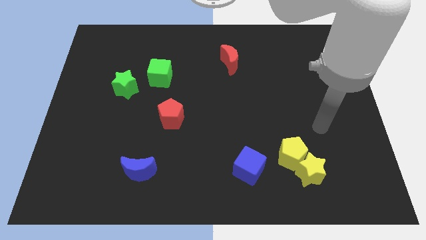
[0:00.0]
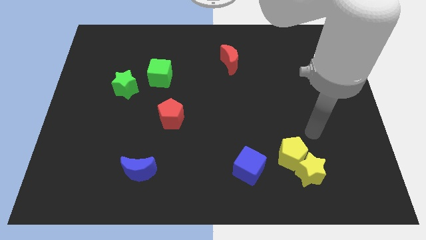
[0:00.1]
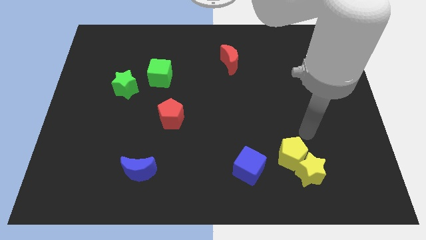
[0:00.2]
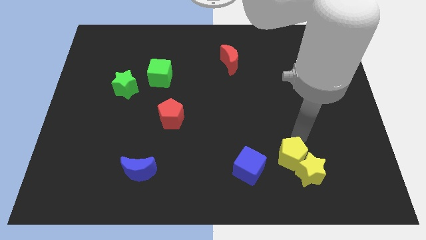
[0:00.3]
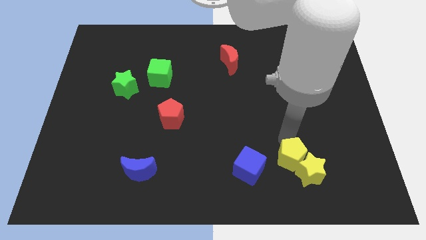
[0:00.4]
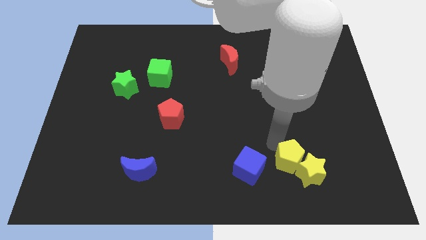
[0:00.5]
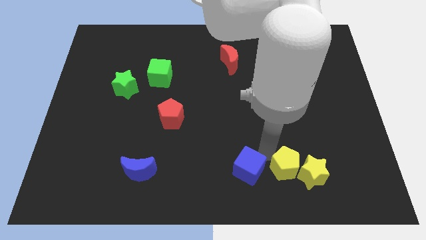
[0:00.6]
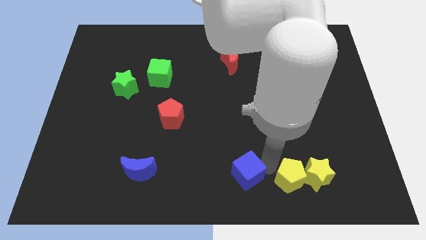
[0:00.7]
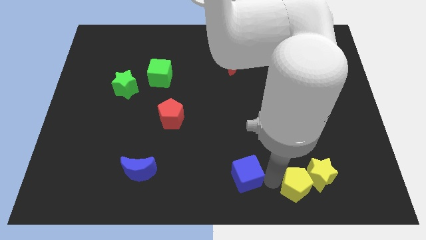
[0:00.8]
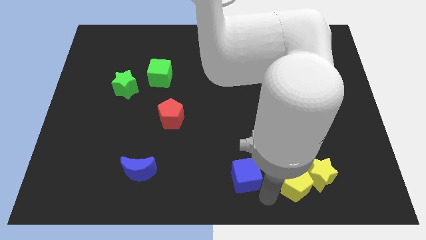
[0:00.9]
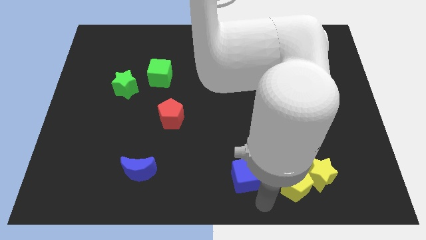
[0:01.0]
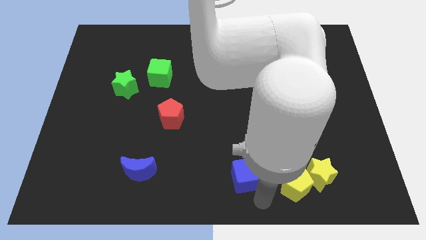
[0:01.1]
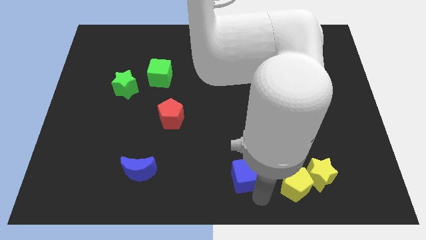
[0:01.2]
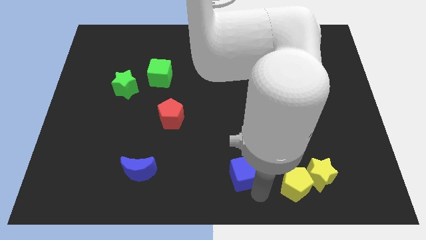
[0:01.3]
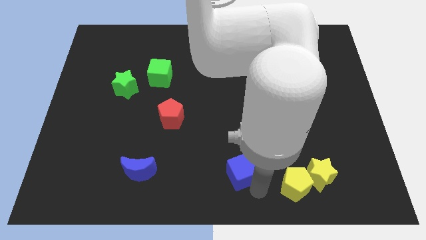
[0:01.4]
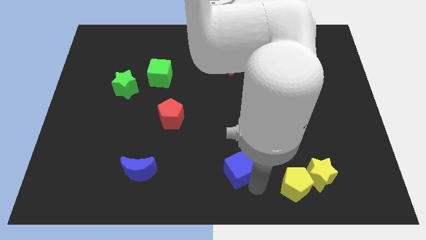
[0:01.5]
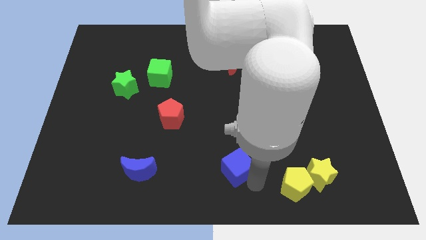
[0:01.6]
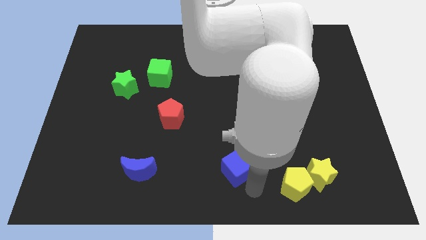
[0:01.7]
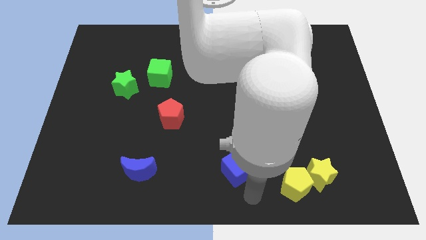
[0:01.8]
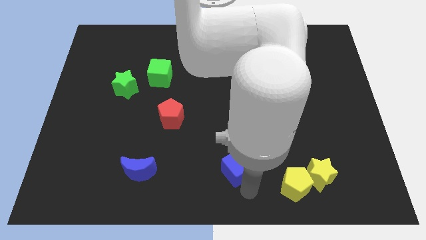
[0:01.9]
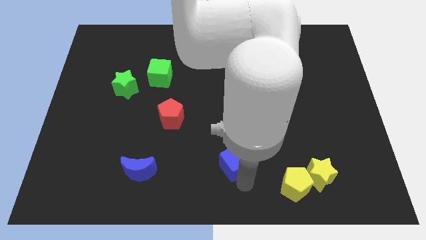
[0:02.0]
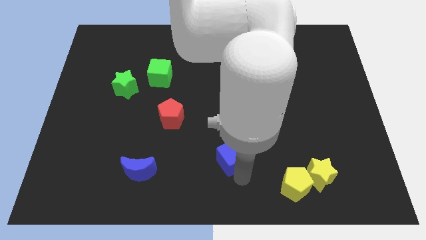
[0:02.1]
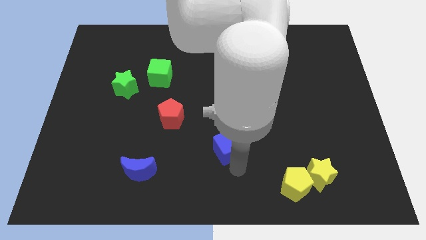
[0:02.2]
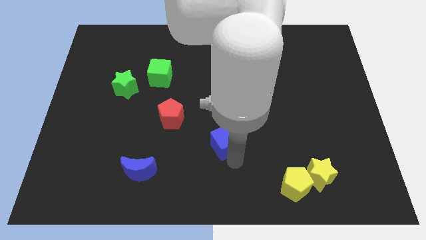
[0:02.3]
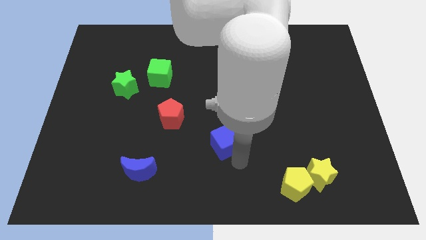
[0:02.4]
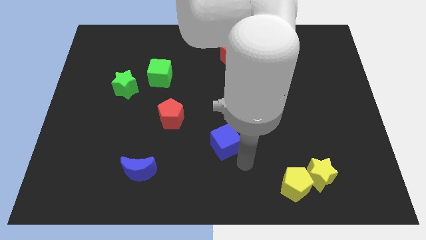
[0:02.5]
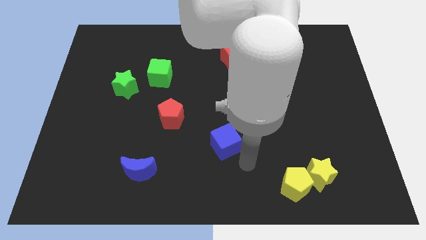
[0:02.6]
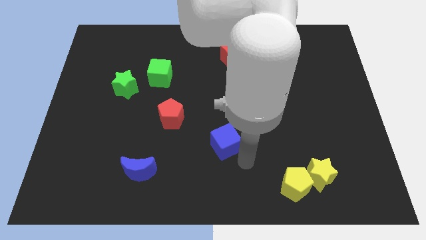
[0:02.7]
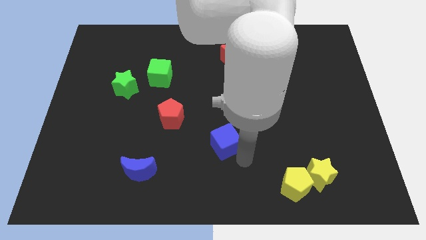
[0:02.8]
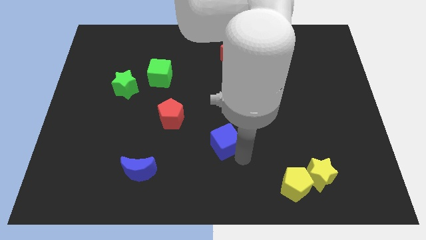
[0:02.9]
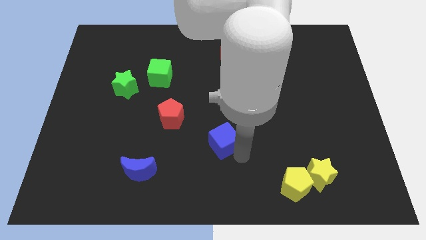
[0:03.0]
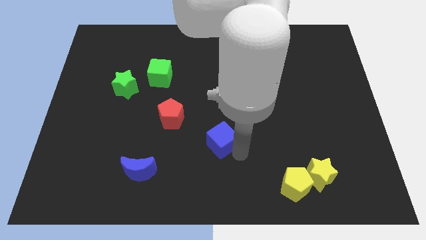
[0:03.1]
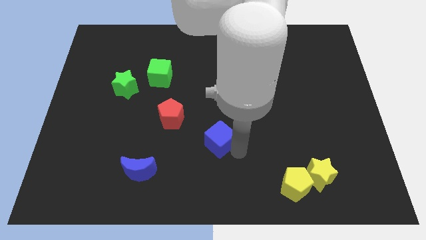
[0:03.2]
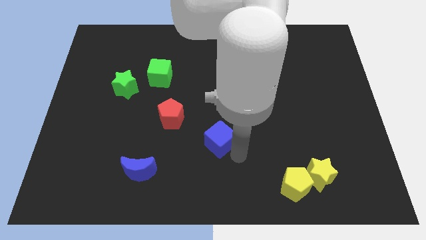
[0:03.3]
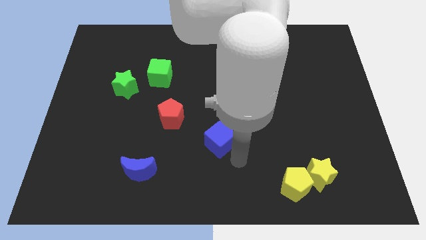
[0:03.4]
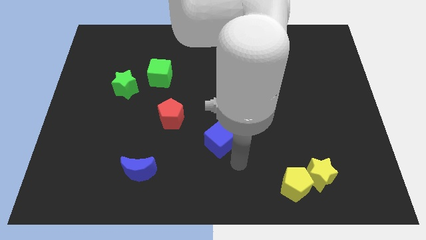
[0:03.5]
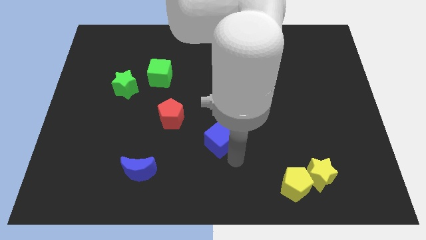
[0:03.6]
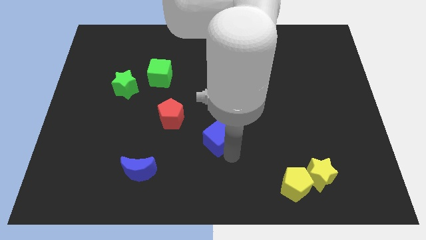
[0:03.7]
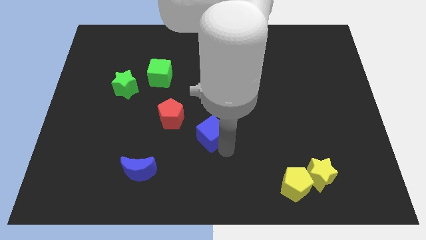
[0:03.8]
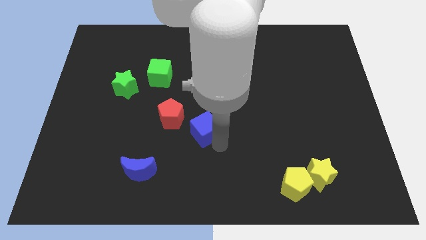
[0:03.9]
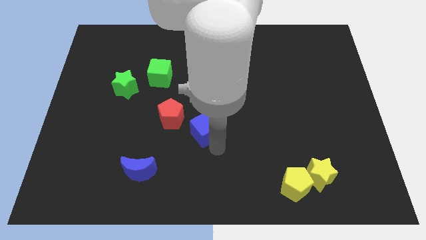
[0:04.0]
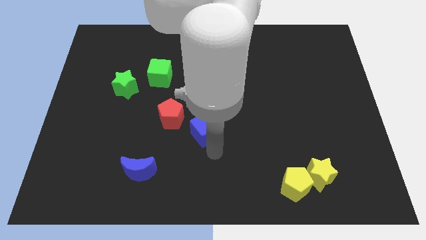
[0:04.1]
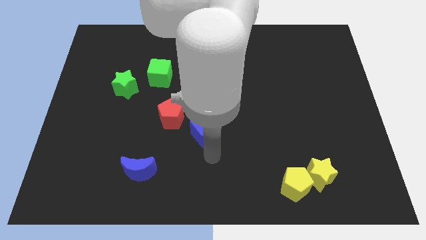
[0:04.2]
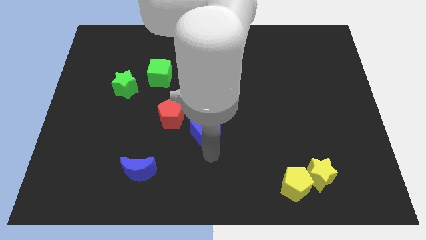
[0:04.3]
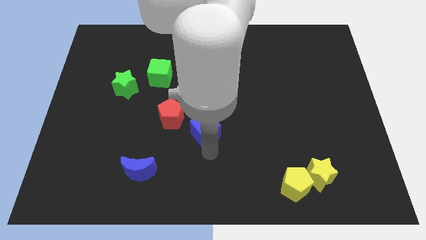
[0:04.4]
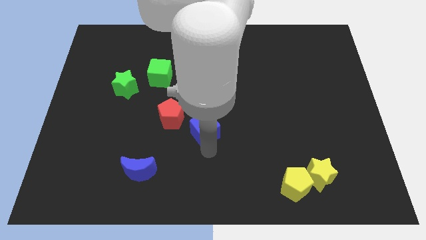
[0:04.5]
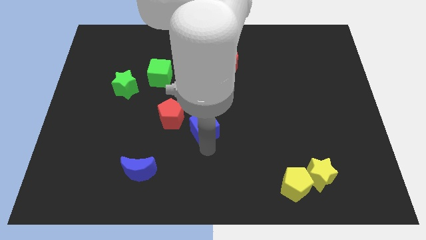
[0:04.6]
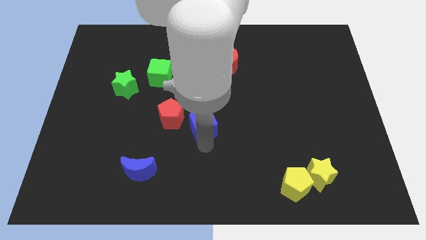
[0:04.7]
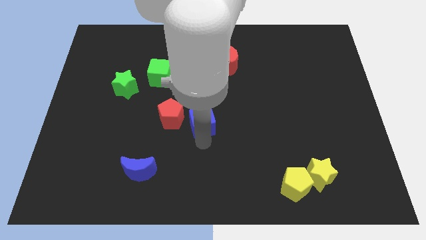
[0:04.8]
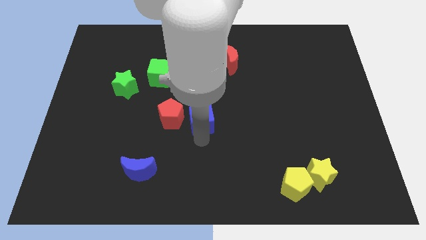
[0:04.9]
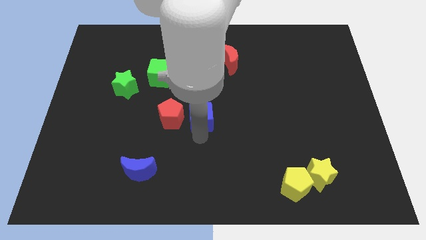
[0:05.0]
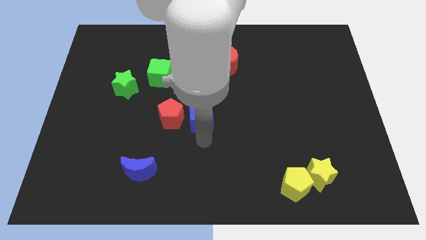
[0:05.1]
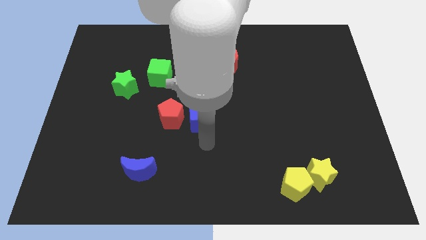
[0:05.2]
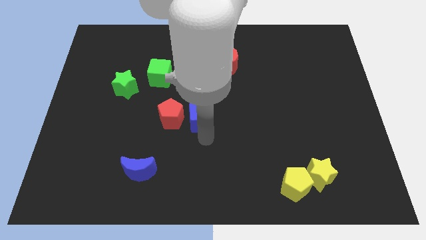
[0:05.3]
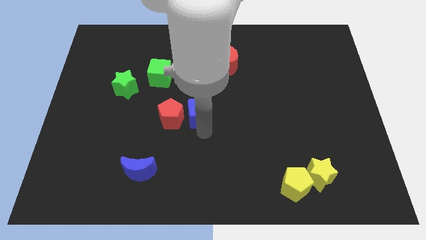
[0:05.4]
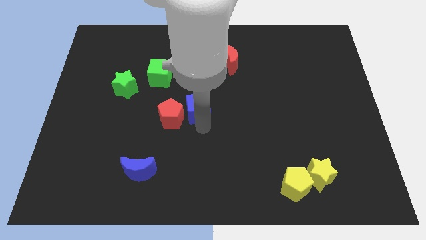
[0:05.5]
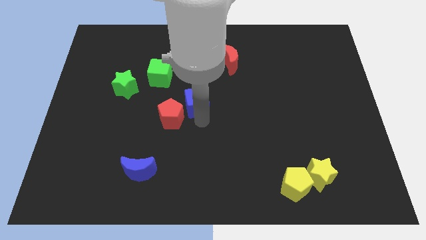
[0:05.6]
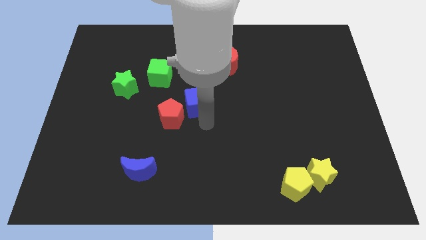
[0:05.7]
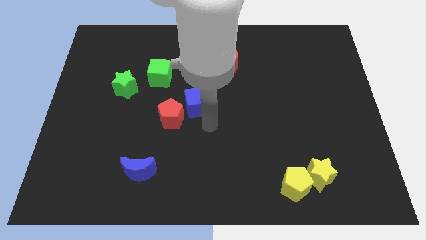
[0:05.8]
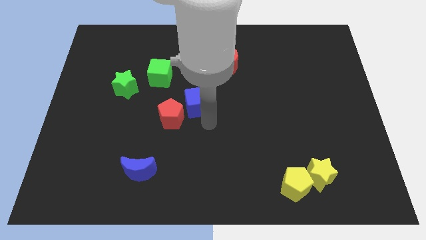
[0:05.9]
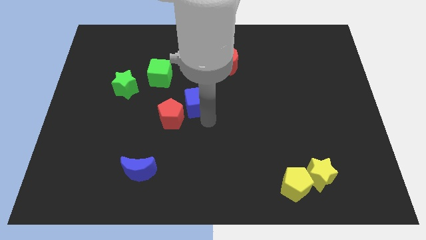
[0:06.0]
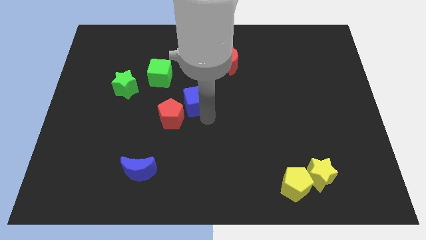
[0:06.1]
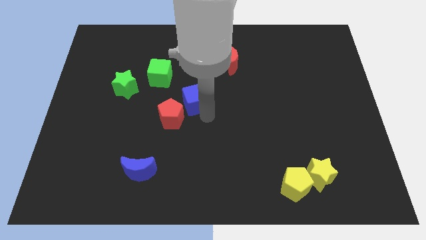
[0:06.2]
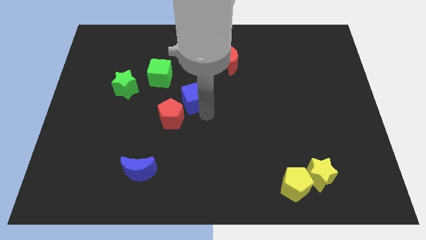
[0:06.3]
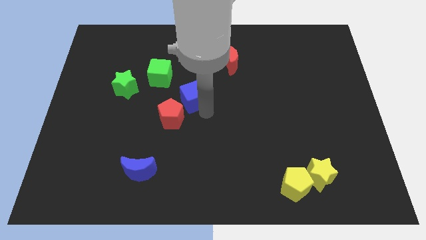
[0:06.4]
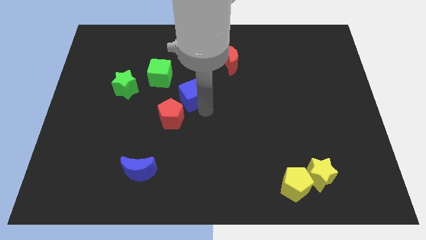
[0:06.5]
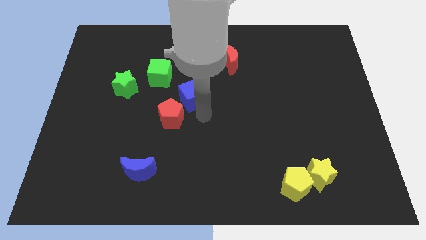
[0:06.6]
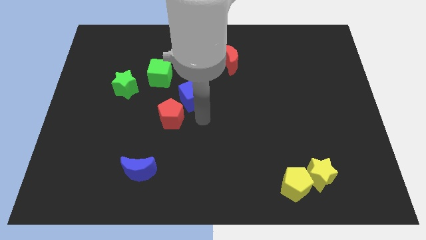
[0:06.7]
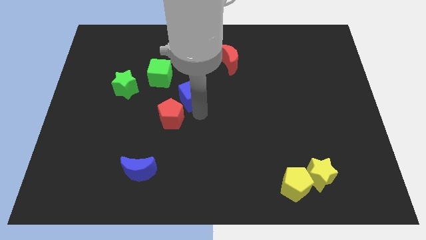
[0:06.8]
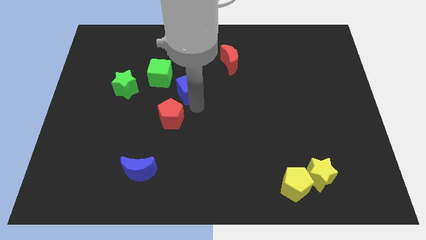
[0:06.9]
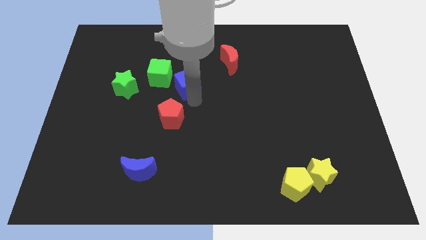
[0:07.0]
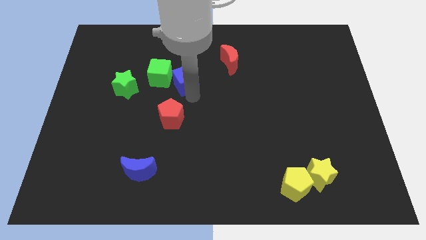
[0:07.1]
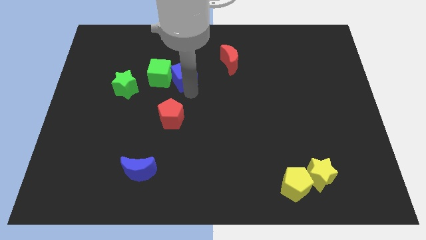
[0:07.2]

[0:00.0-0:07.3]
move the blue cube to the top right side of the green cube
